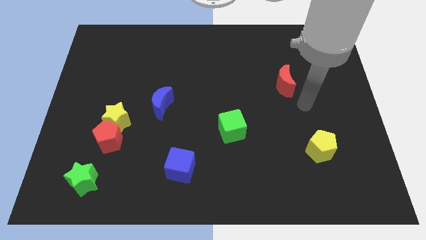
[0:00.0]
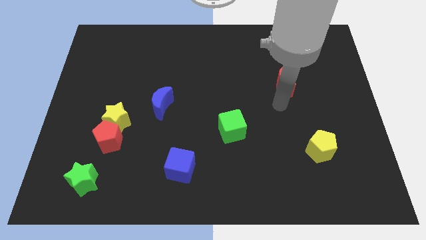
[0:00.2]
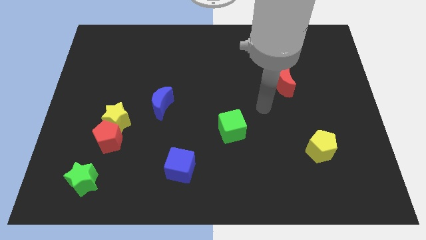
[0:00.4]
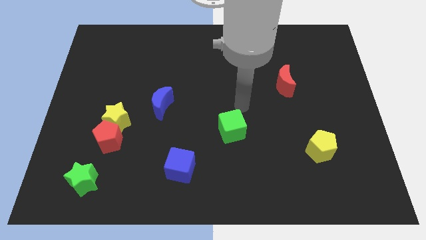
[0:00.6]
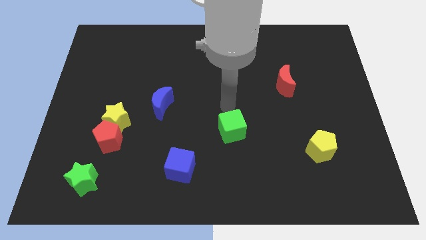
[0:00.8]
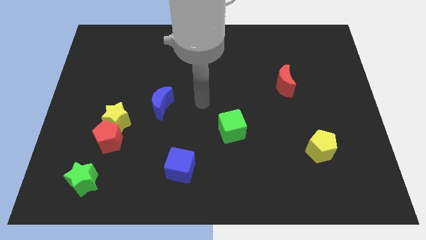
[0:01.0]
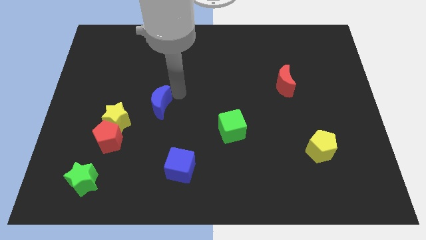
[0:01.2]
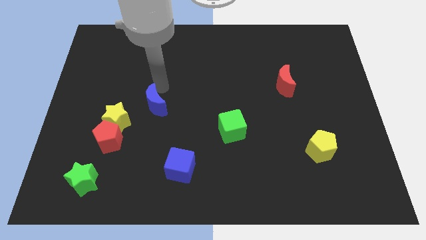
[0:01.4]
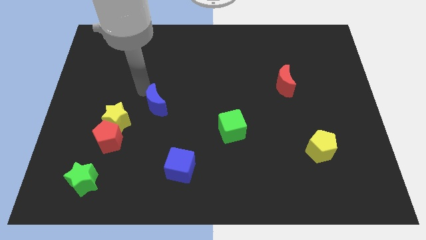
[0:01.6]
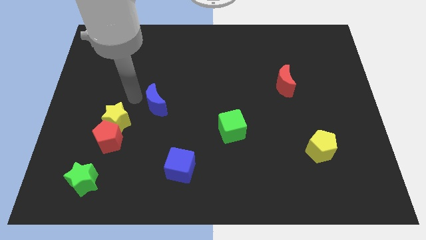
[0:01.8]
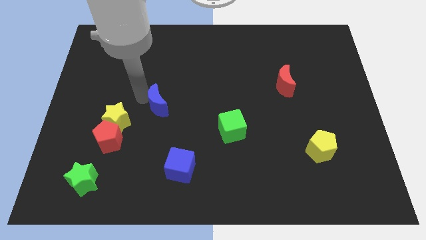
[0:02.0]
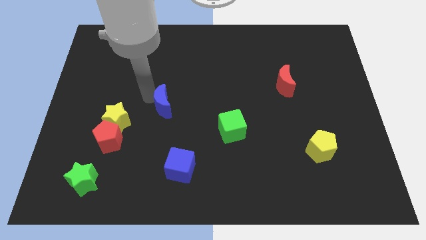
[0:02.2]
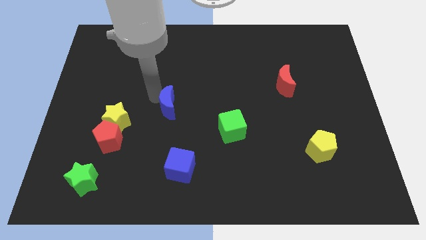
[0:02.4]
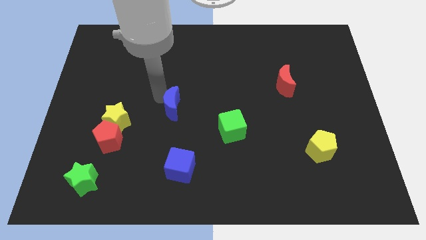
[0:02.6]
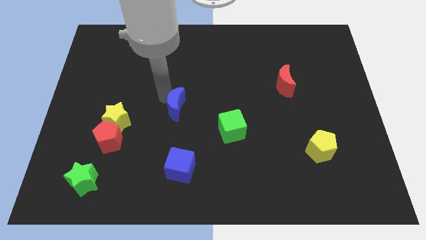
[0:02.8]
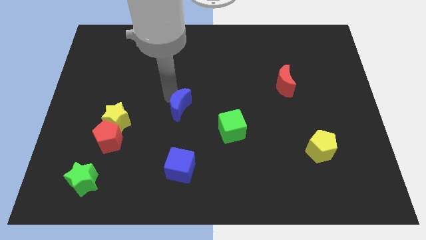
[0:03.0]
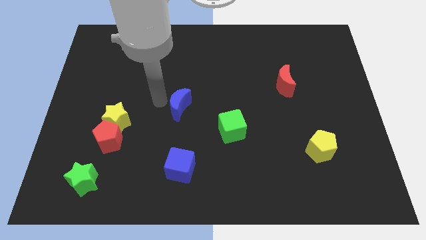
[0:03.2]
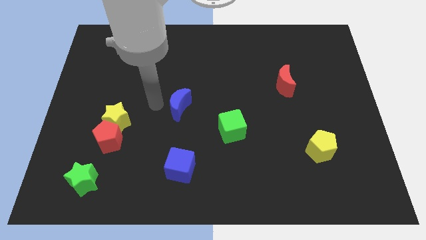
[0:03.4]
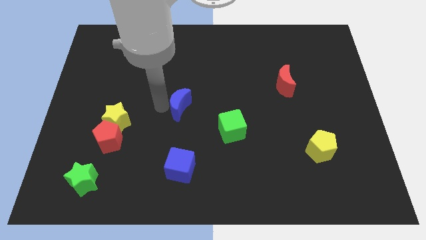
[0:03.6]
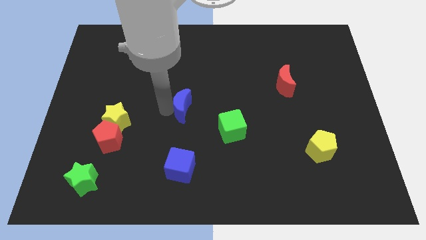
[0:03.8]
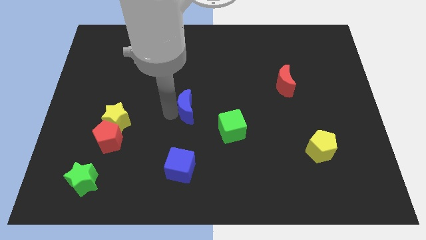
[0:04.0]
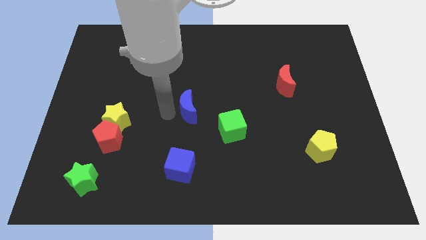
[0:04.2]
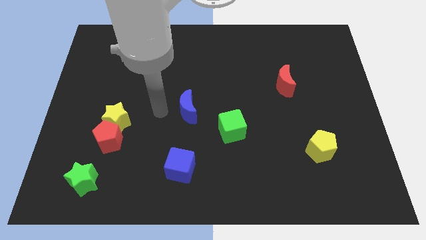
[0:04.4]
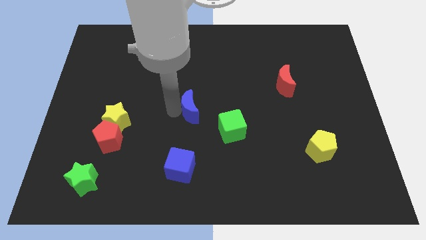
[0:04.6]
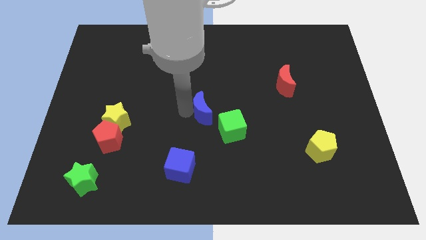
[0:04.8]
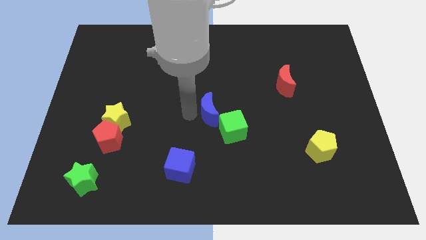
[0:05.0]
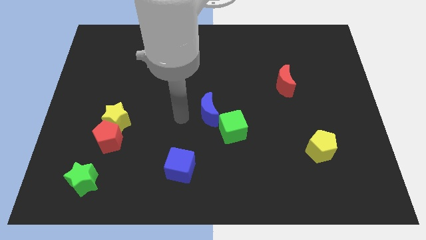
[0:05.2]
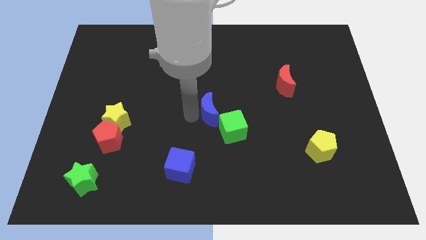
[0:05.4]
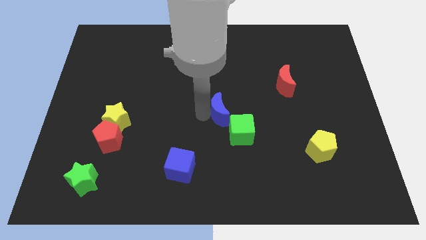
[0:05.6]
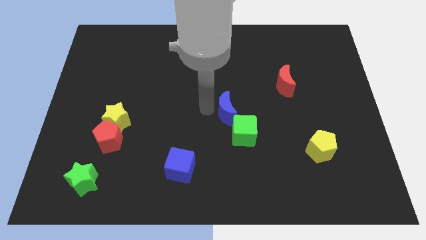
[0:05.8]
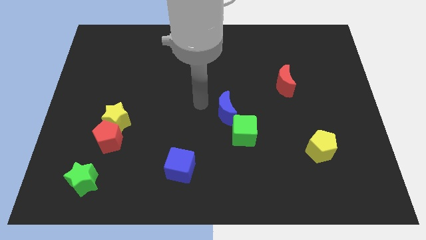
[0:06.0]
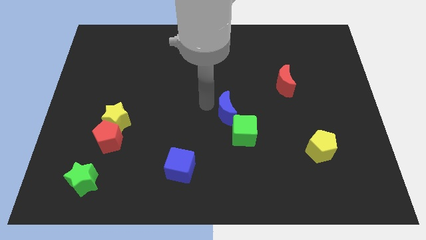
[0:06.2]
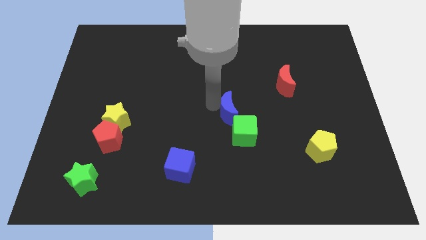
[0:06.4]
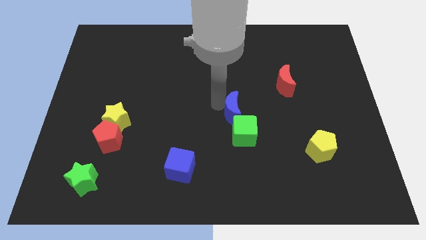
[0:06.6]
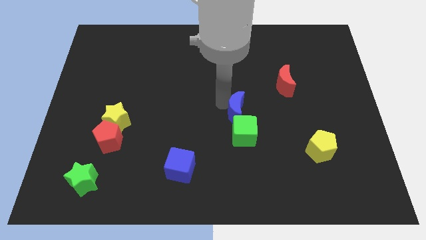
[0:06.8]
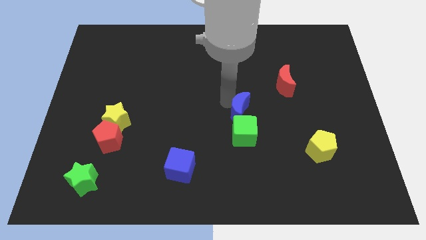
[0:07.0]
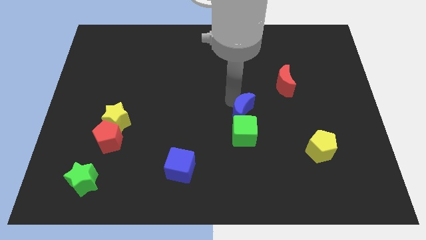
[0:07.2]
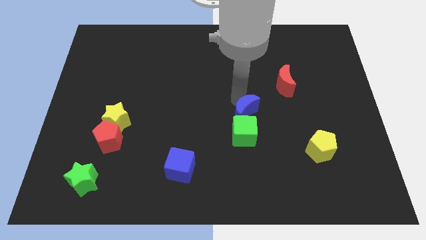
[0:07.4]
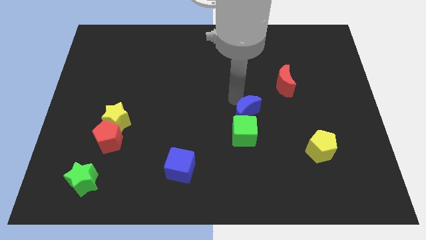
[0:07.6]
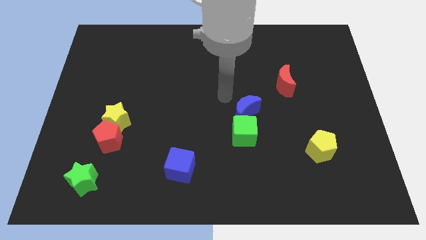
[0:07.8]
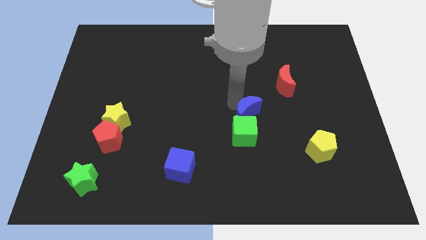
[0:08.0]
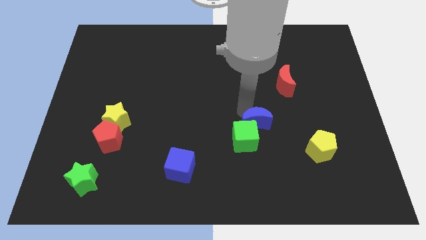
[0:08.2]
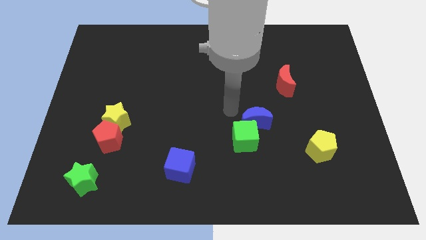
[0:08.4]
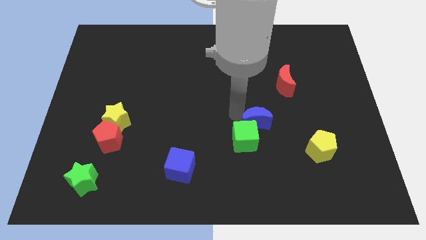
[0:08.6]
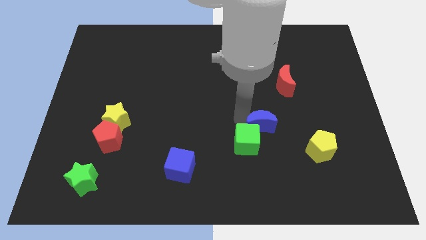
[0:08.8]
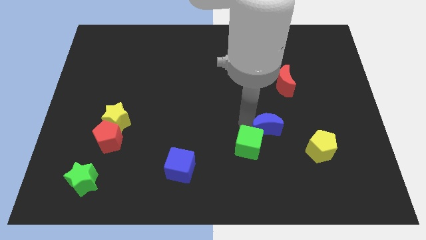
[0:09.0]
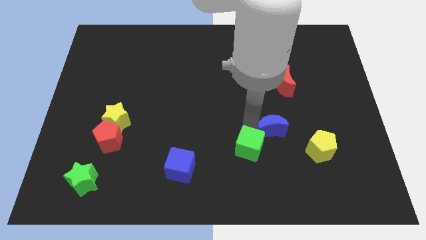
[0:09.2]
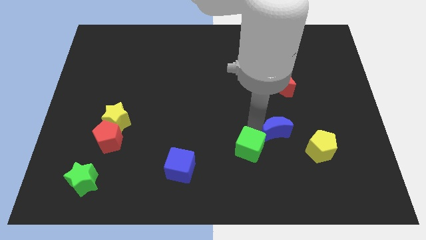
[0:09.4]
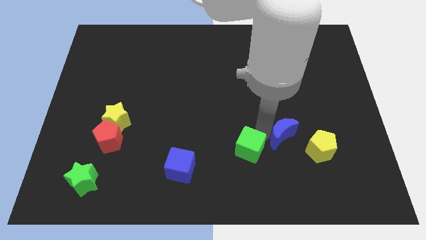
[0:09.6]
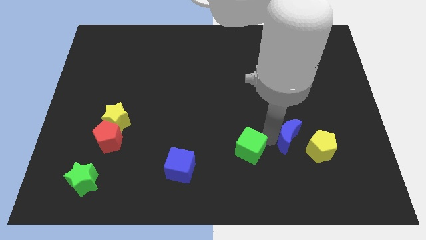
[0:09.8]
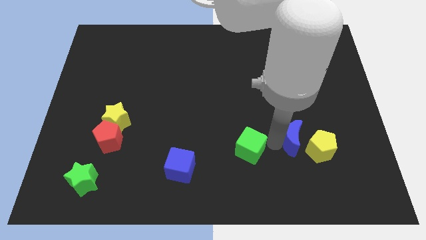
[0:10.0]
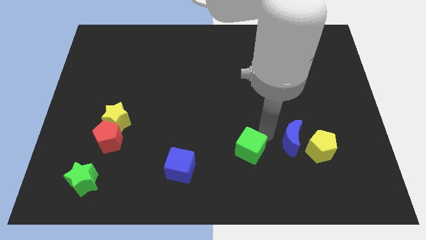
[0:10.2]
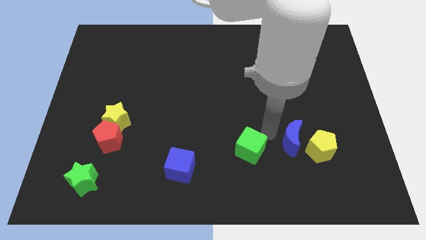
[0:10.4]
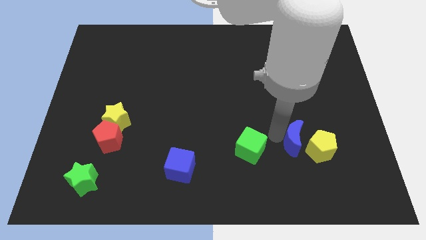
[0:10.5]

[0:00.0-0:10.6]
put the blue moon close to the yellow pentagon

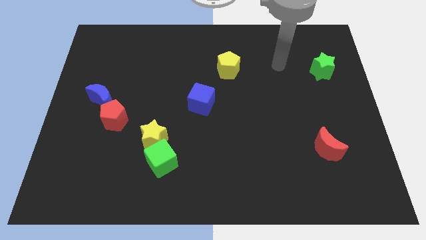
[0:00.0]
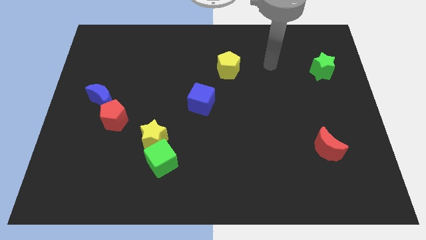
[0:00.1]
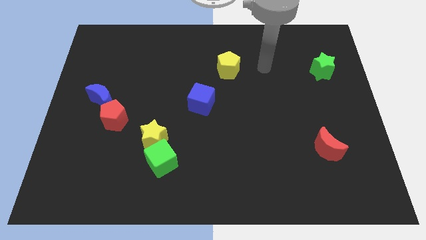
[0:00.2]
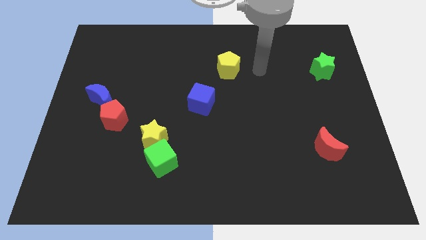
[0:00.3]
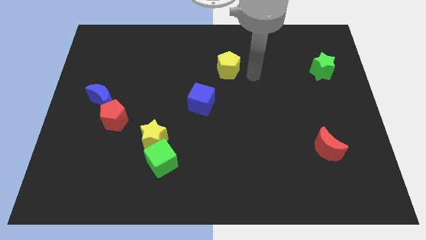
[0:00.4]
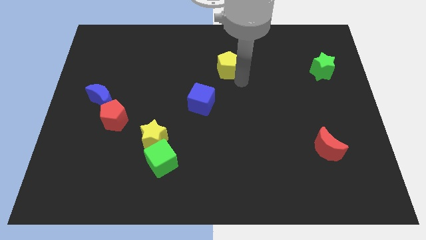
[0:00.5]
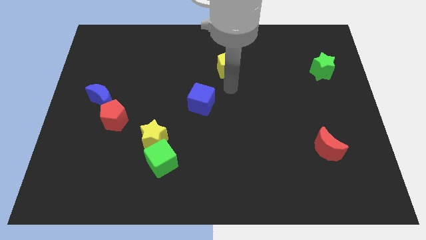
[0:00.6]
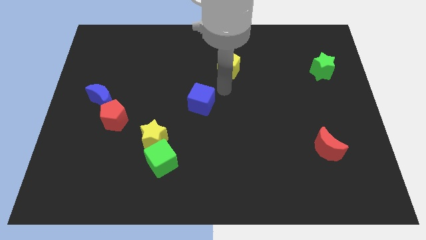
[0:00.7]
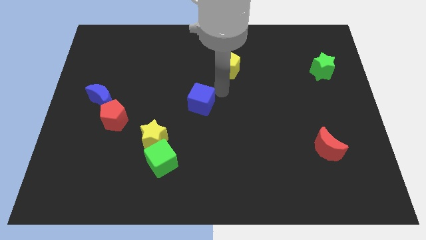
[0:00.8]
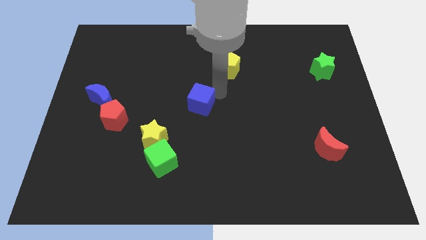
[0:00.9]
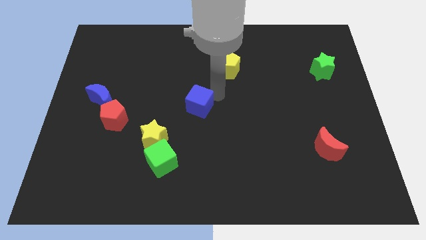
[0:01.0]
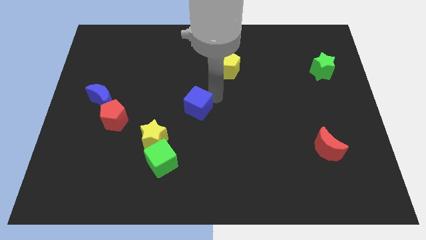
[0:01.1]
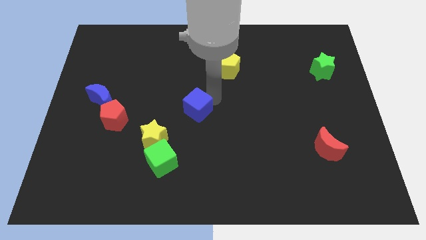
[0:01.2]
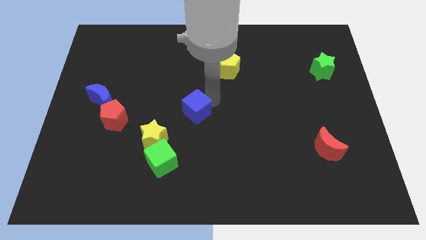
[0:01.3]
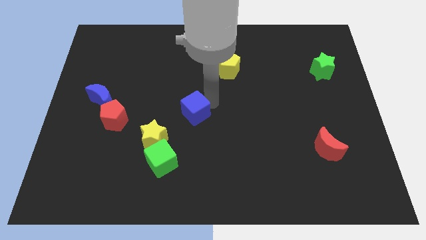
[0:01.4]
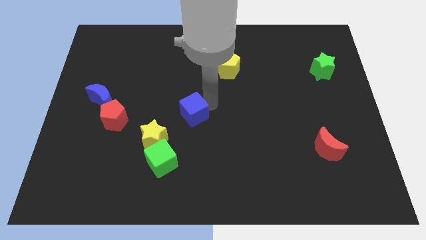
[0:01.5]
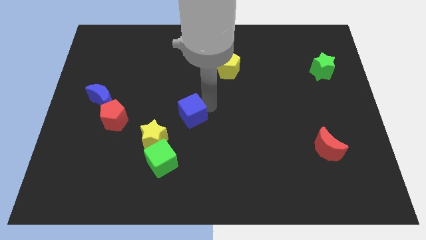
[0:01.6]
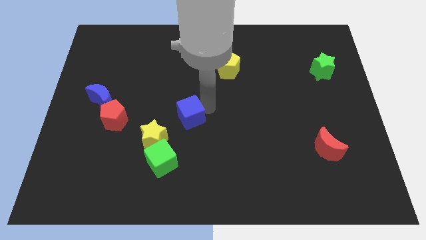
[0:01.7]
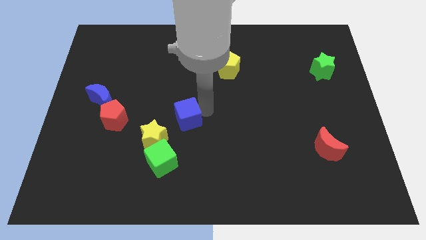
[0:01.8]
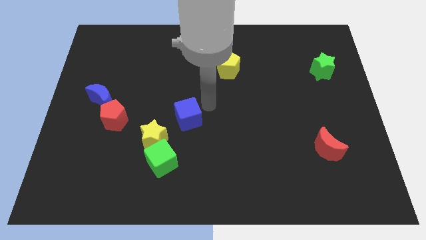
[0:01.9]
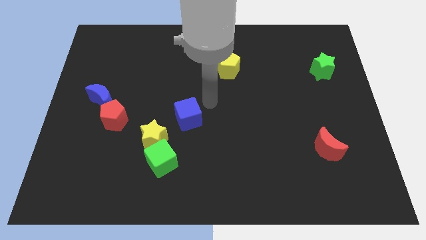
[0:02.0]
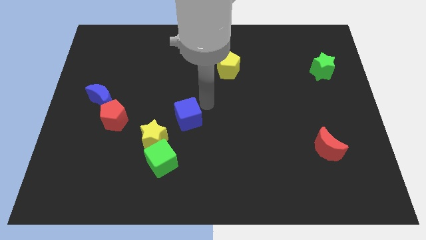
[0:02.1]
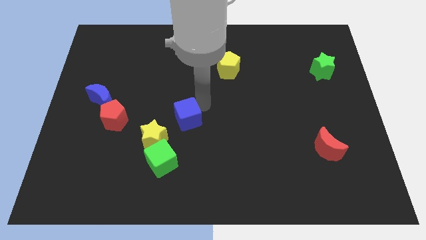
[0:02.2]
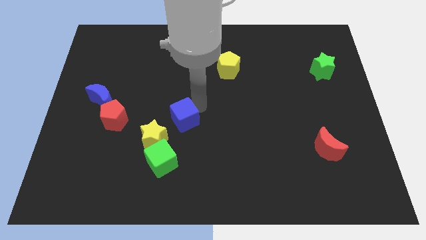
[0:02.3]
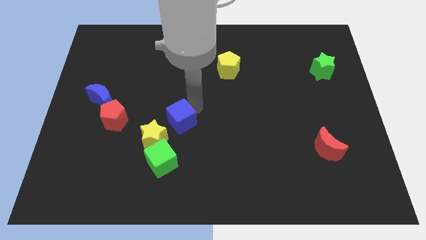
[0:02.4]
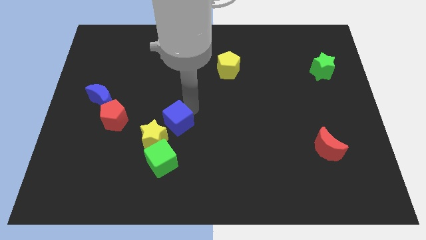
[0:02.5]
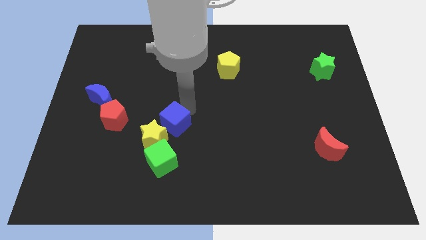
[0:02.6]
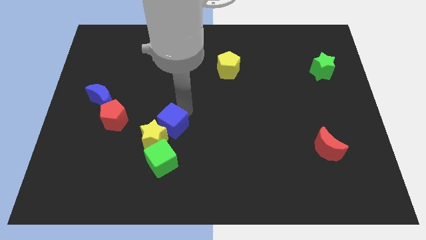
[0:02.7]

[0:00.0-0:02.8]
slide the blue cube close to the yellow star
